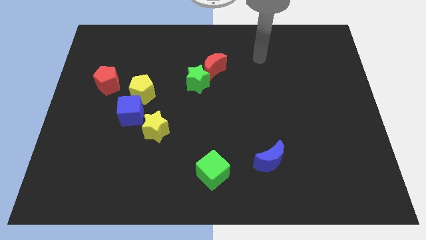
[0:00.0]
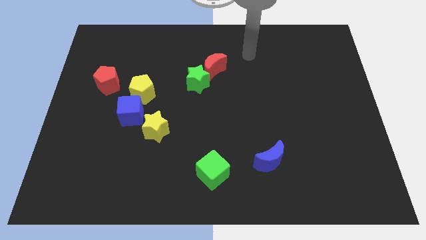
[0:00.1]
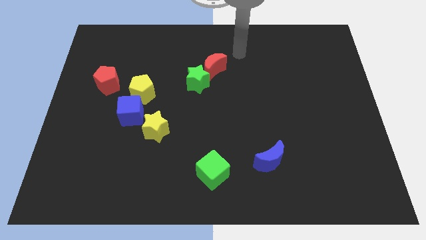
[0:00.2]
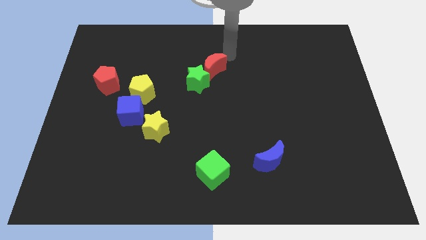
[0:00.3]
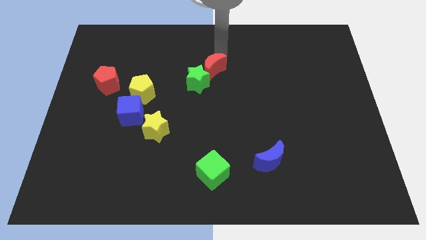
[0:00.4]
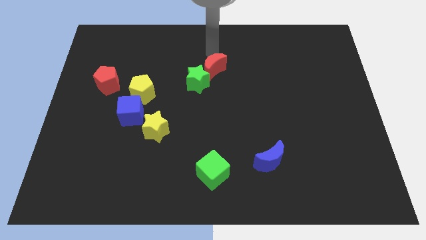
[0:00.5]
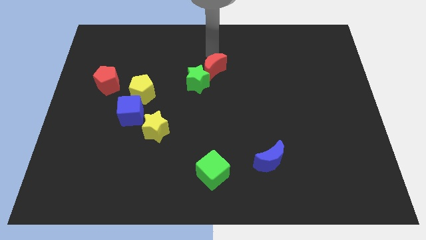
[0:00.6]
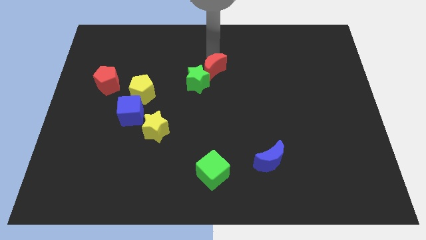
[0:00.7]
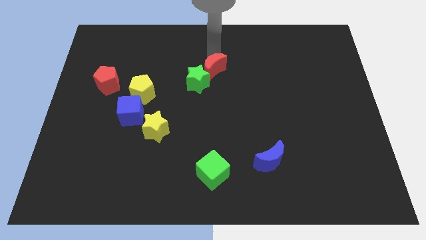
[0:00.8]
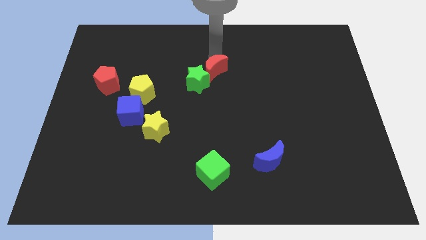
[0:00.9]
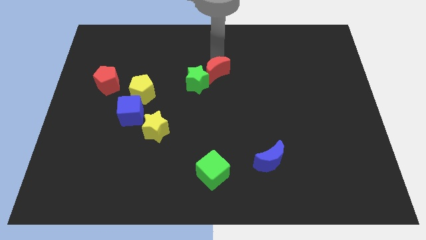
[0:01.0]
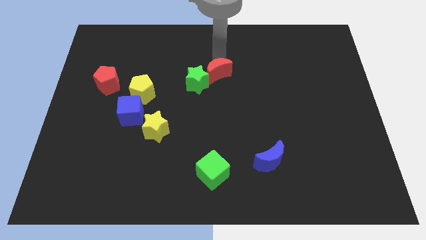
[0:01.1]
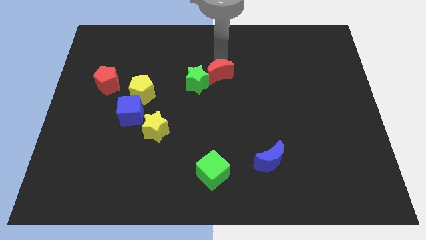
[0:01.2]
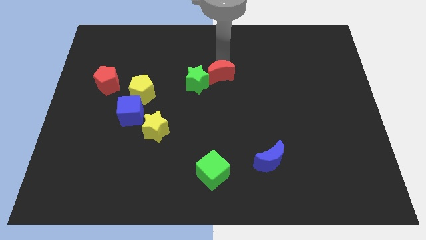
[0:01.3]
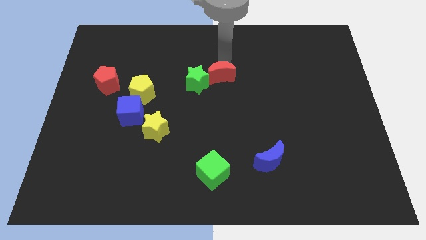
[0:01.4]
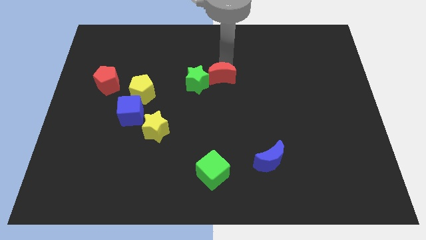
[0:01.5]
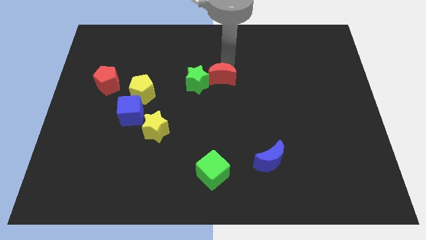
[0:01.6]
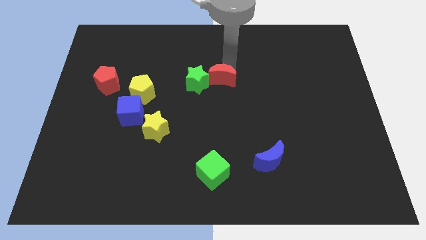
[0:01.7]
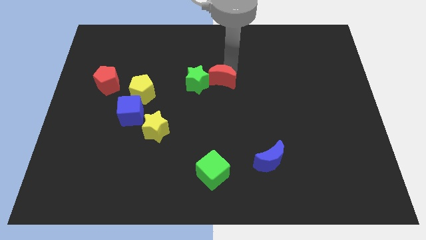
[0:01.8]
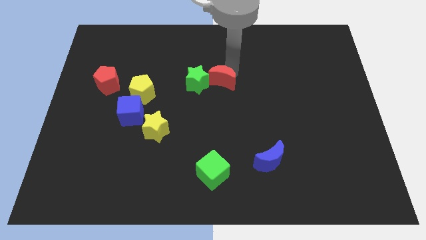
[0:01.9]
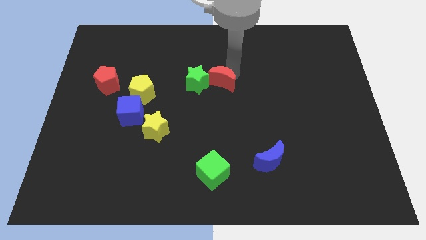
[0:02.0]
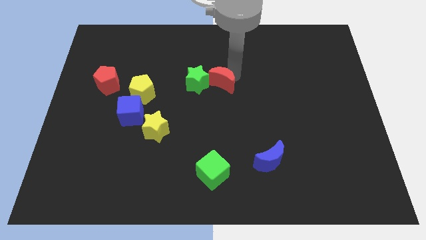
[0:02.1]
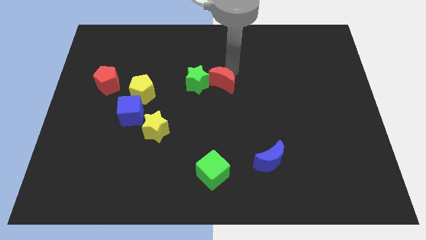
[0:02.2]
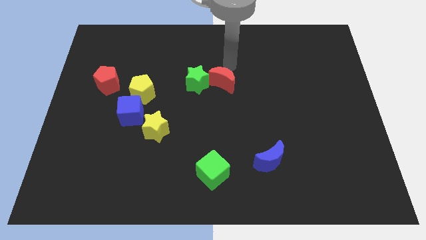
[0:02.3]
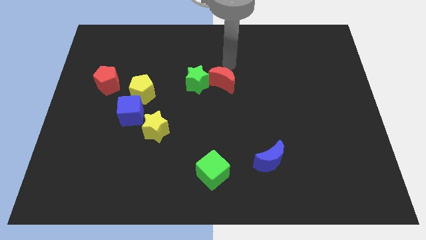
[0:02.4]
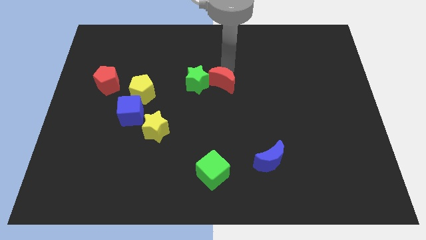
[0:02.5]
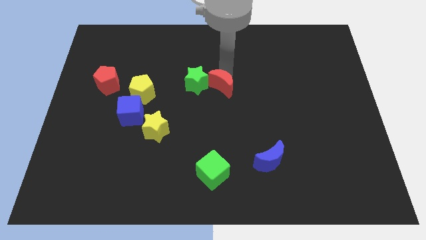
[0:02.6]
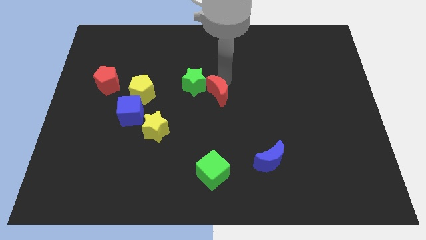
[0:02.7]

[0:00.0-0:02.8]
slightly push the red moon downwards

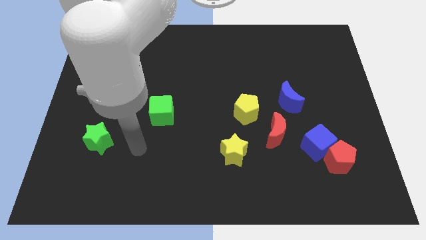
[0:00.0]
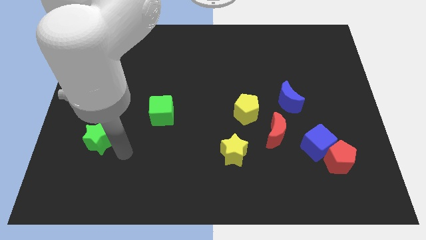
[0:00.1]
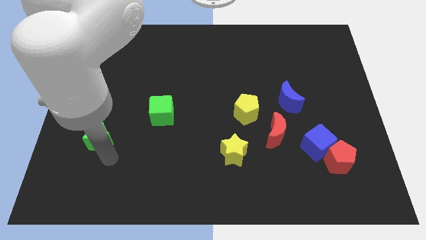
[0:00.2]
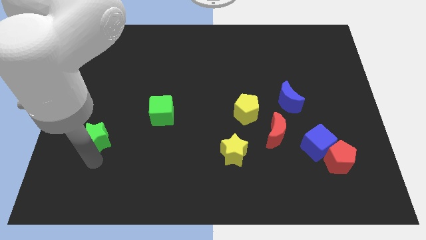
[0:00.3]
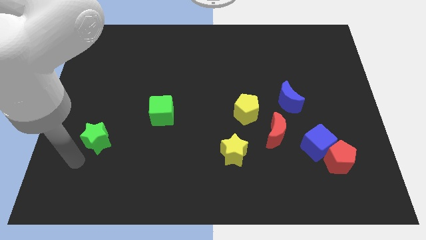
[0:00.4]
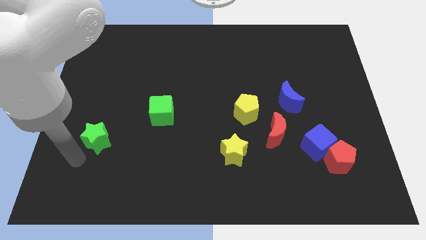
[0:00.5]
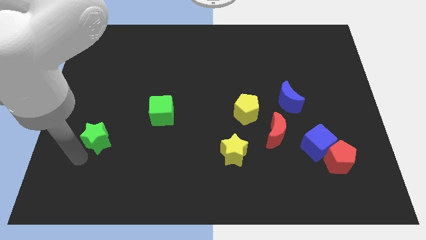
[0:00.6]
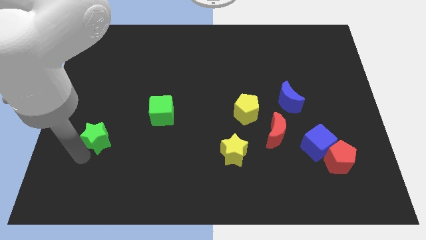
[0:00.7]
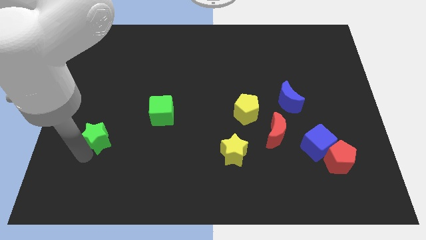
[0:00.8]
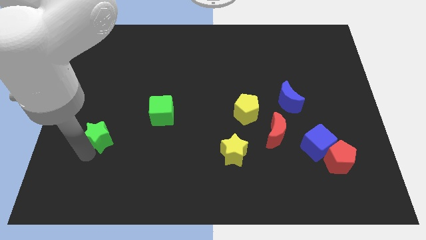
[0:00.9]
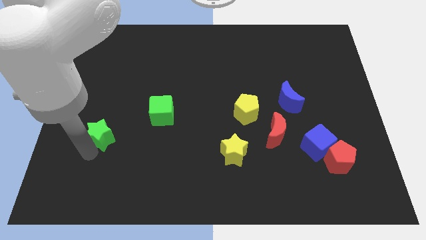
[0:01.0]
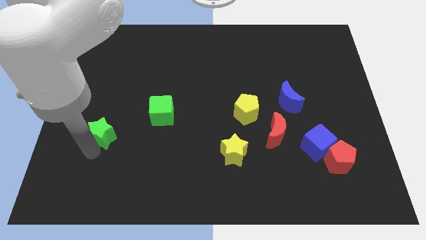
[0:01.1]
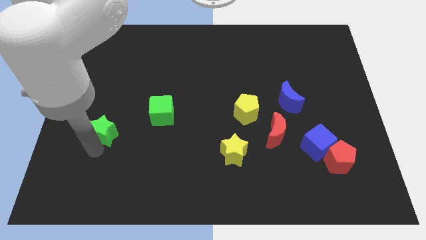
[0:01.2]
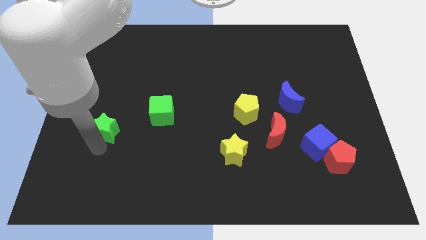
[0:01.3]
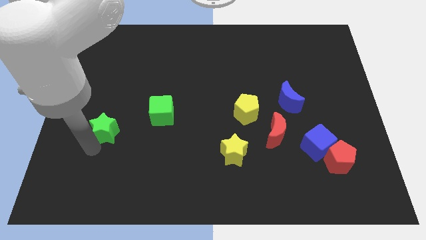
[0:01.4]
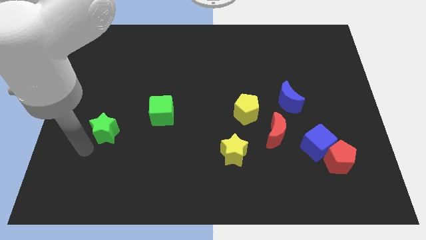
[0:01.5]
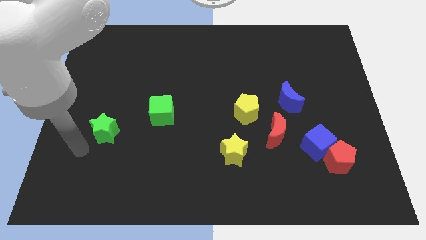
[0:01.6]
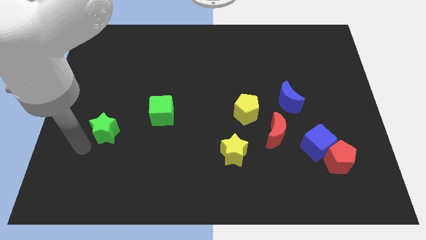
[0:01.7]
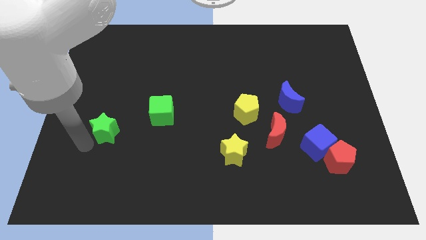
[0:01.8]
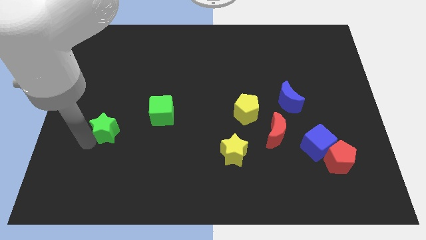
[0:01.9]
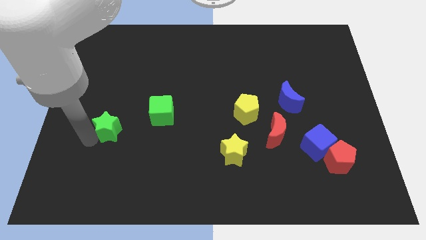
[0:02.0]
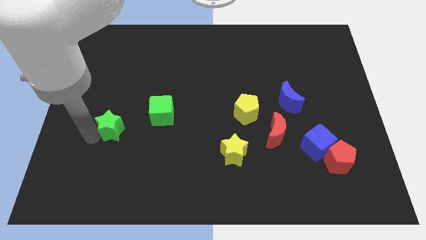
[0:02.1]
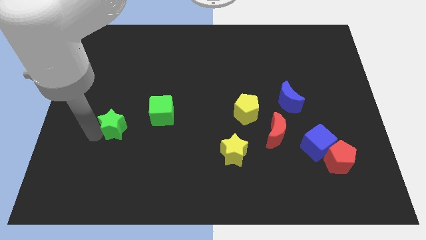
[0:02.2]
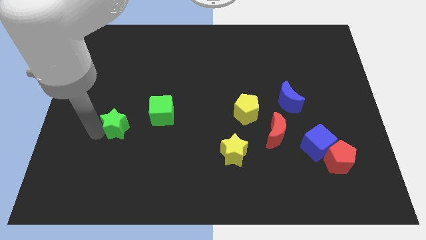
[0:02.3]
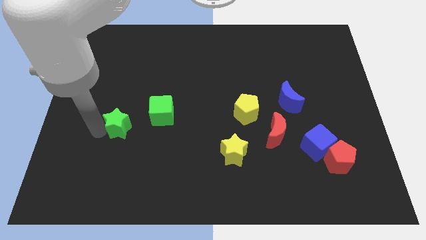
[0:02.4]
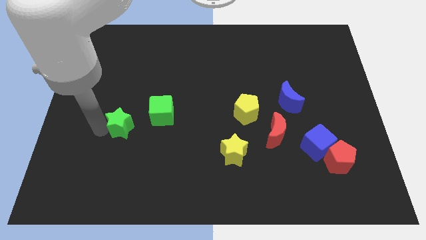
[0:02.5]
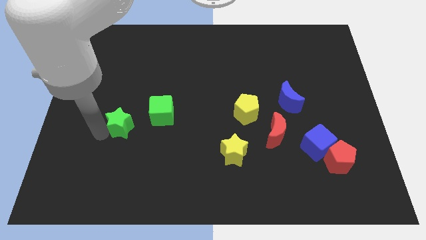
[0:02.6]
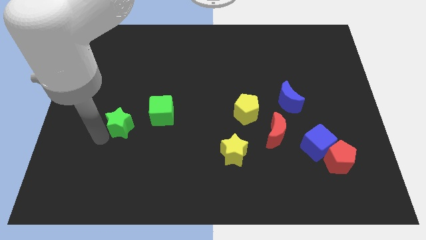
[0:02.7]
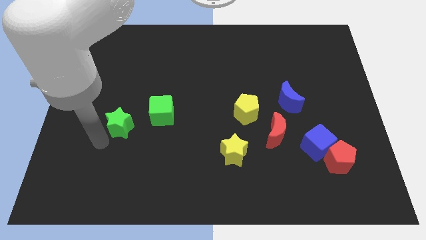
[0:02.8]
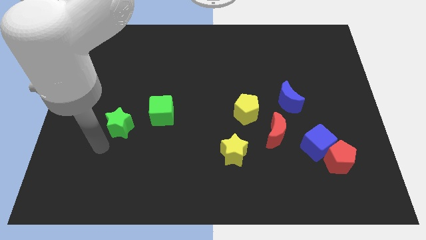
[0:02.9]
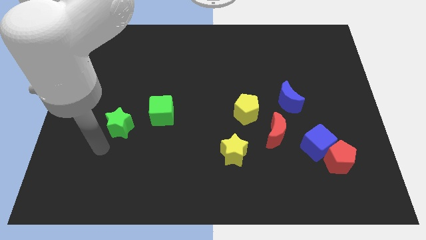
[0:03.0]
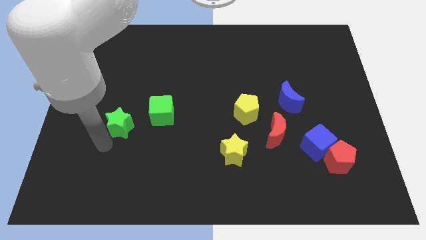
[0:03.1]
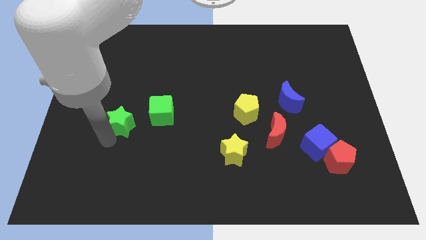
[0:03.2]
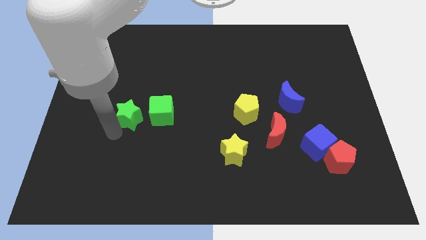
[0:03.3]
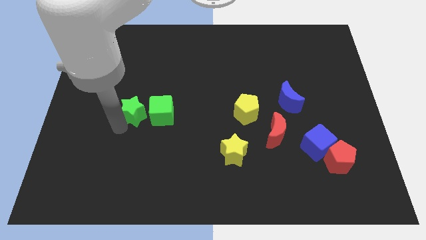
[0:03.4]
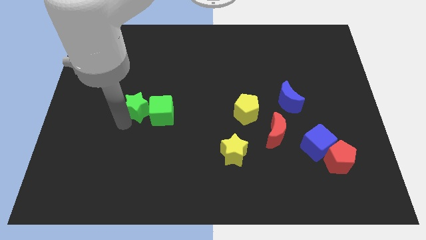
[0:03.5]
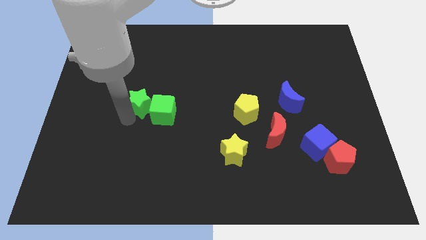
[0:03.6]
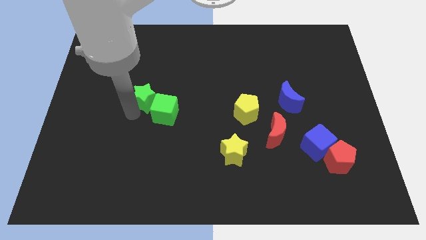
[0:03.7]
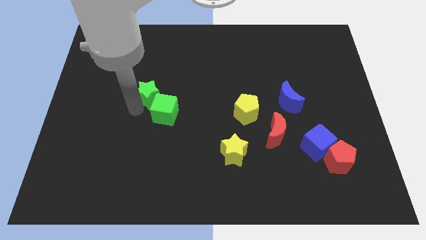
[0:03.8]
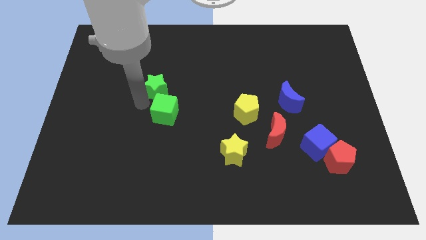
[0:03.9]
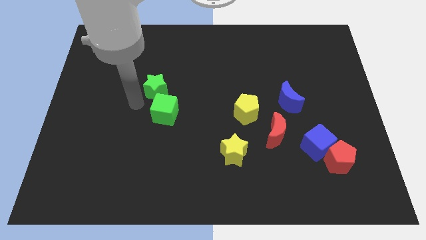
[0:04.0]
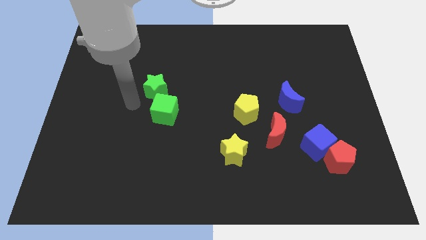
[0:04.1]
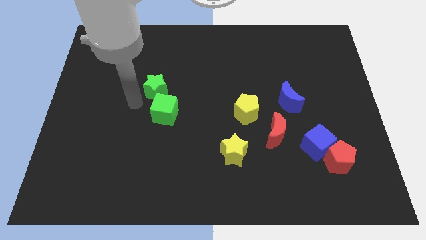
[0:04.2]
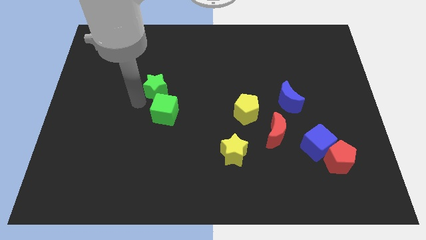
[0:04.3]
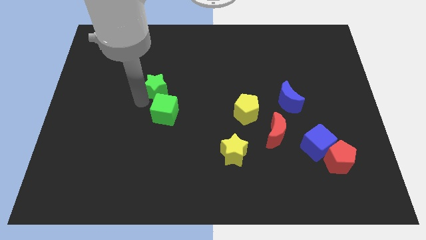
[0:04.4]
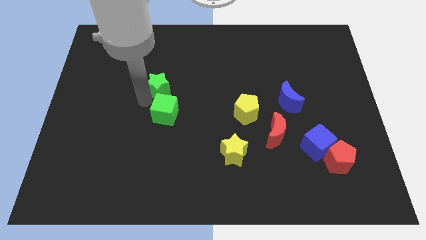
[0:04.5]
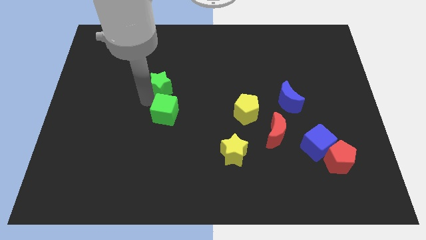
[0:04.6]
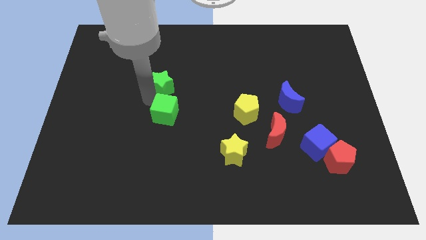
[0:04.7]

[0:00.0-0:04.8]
push the green star up and then to the right

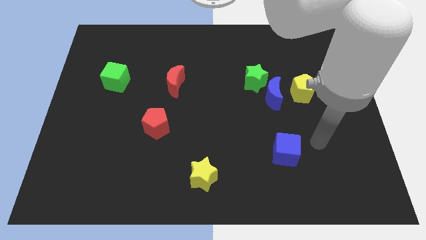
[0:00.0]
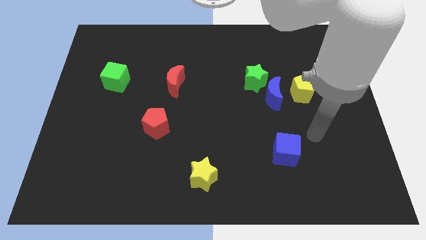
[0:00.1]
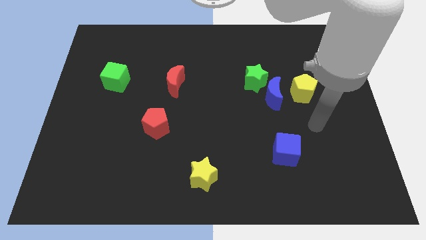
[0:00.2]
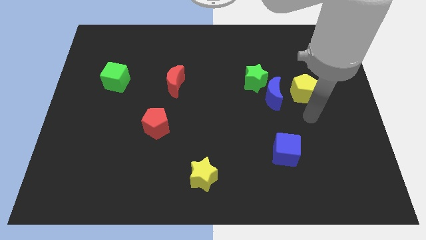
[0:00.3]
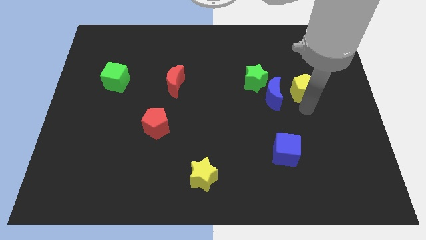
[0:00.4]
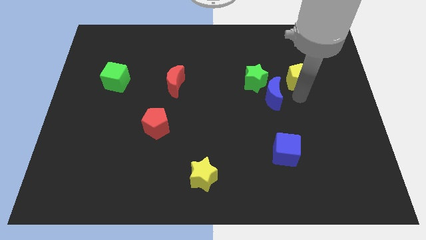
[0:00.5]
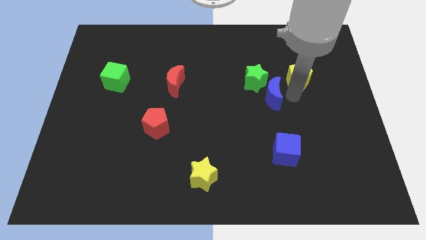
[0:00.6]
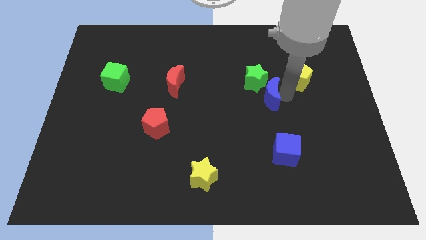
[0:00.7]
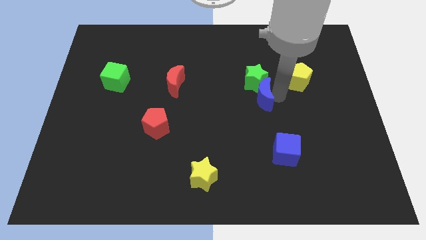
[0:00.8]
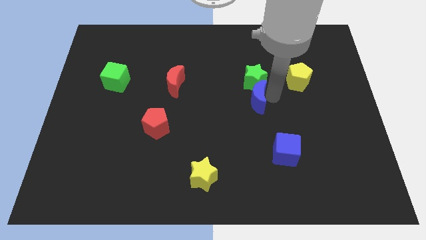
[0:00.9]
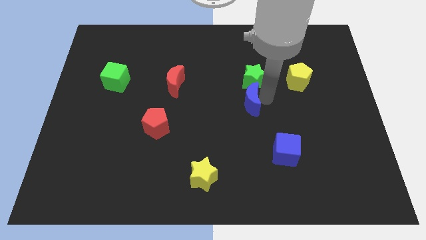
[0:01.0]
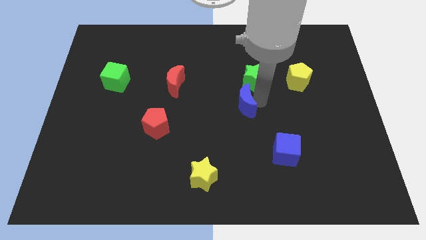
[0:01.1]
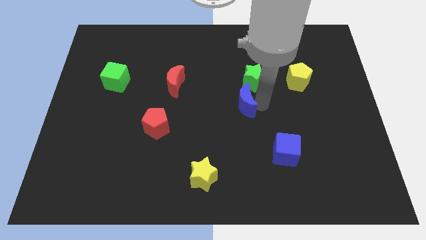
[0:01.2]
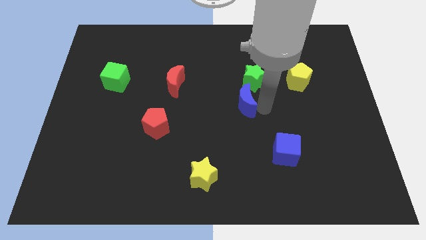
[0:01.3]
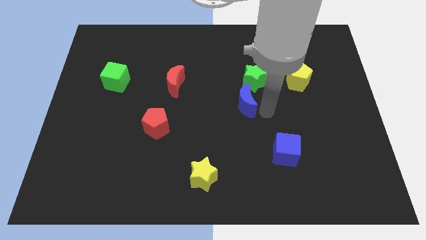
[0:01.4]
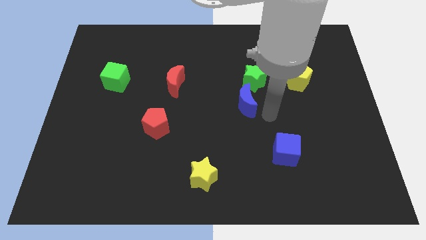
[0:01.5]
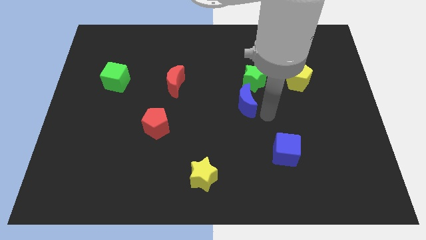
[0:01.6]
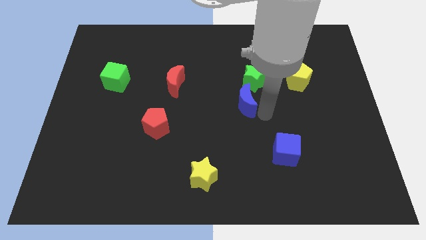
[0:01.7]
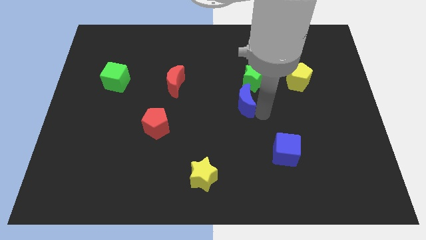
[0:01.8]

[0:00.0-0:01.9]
slide the blue moon a little bit left
